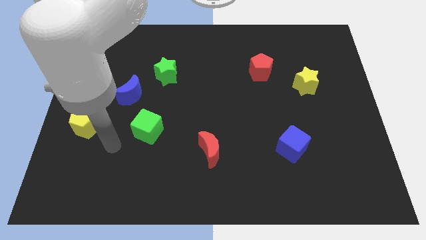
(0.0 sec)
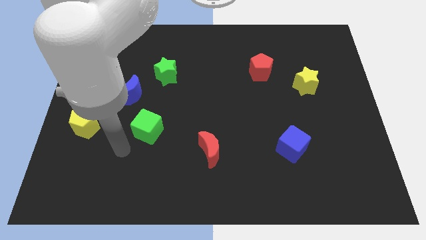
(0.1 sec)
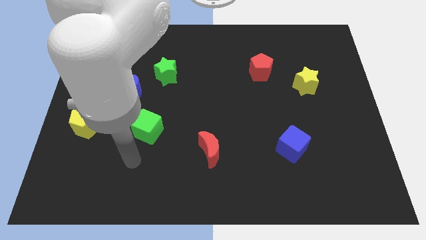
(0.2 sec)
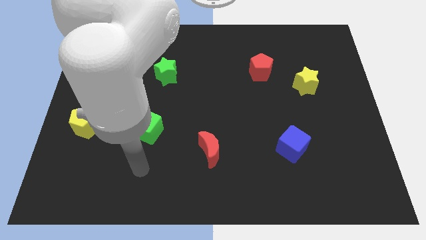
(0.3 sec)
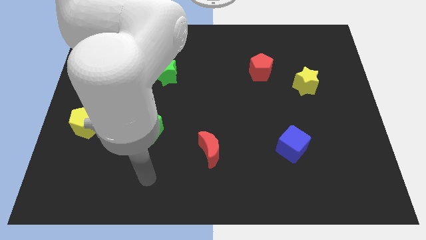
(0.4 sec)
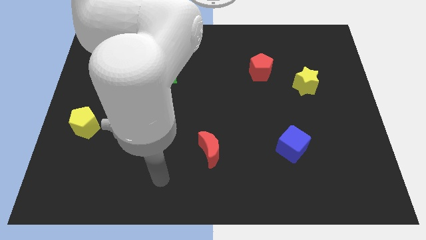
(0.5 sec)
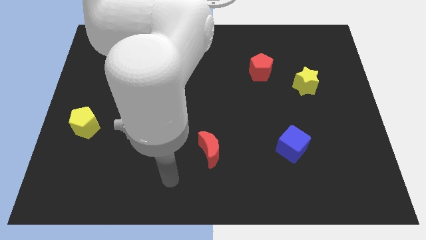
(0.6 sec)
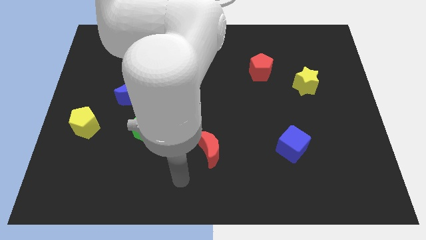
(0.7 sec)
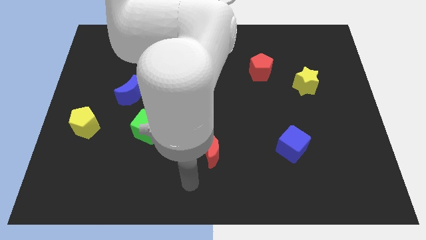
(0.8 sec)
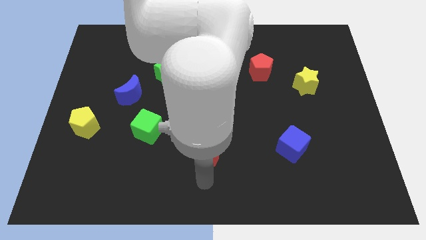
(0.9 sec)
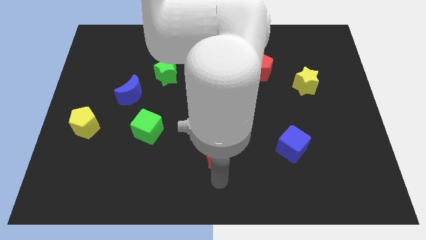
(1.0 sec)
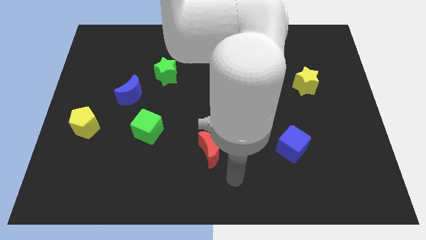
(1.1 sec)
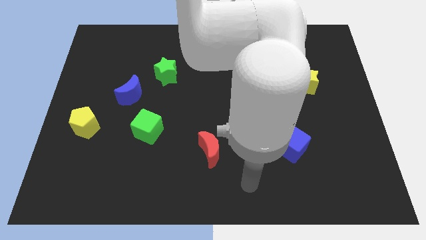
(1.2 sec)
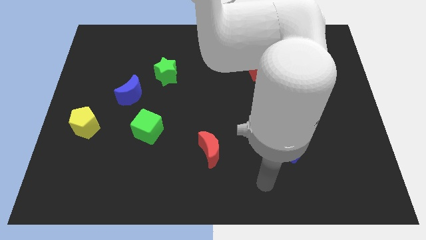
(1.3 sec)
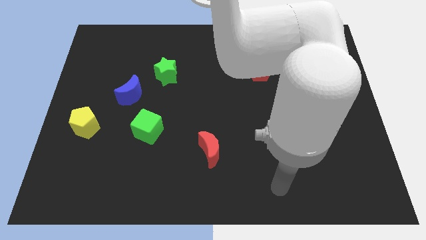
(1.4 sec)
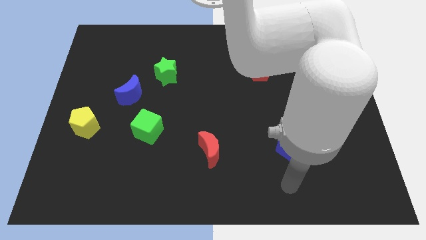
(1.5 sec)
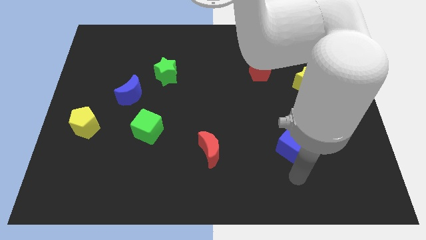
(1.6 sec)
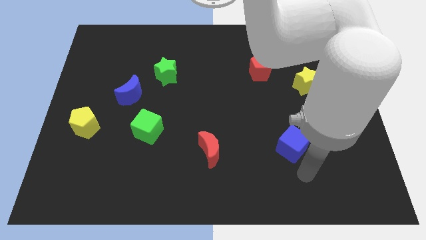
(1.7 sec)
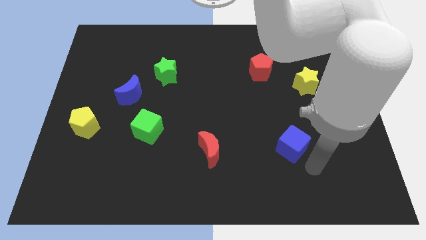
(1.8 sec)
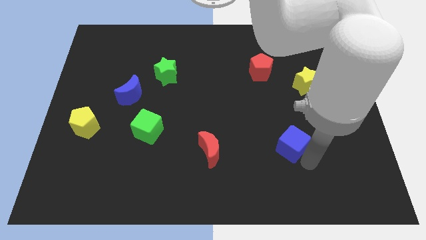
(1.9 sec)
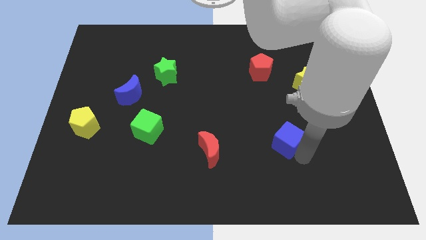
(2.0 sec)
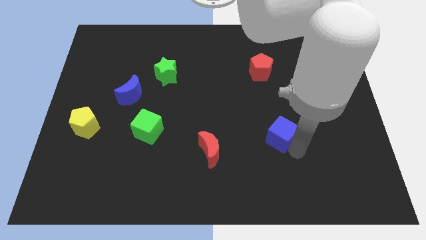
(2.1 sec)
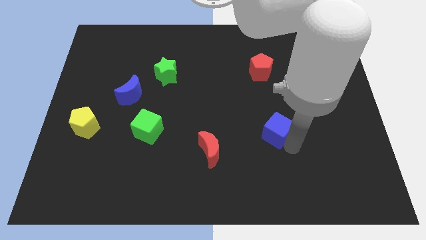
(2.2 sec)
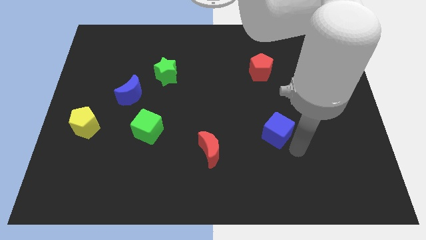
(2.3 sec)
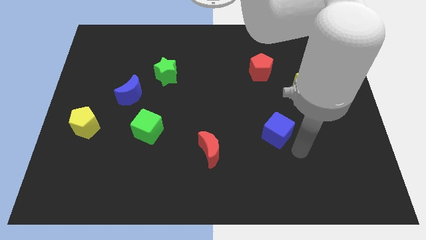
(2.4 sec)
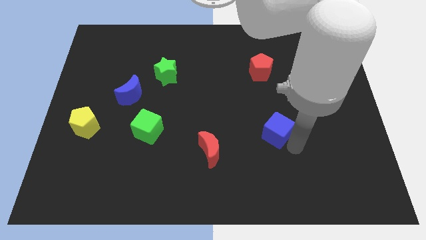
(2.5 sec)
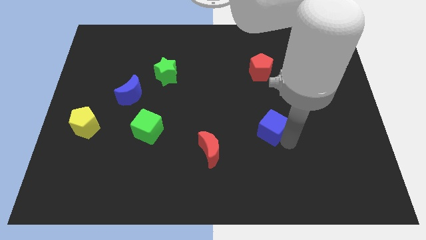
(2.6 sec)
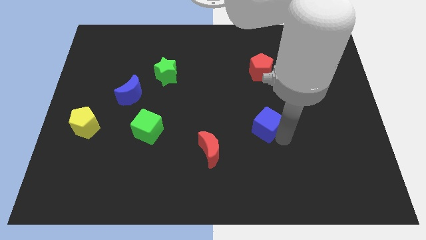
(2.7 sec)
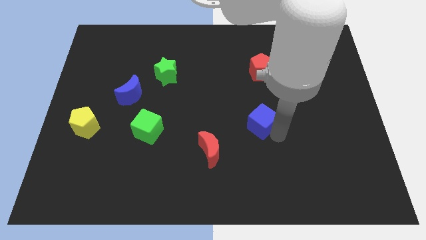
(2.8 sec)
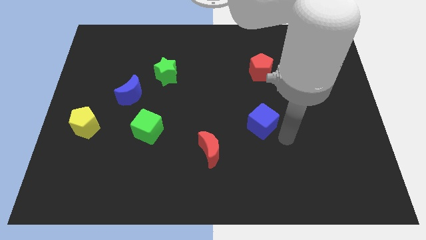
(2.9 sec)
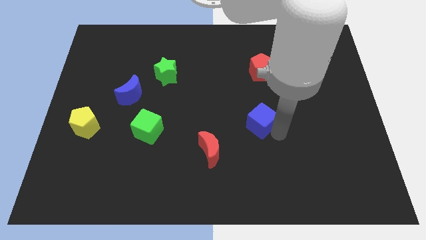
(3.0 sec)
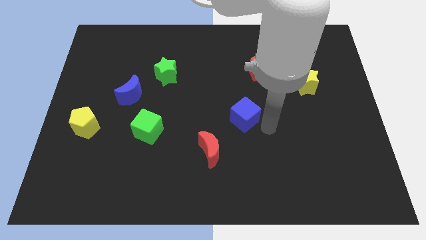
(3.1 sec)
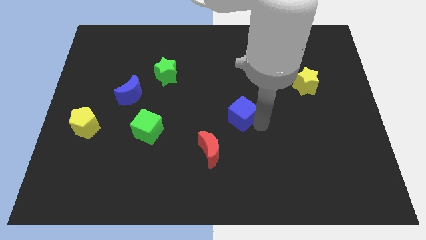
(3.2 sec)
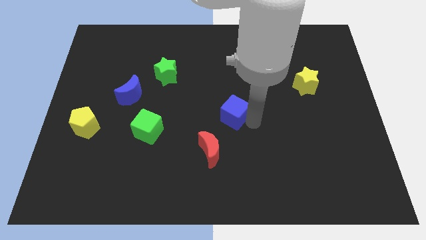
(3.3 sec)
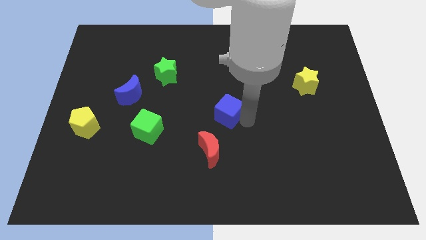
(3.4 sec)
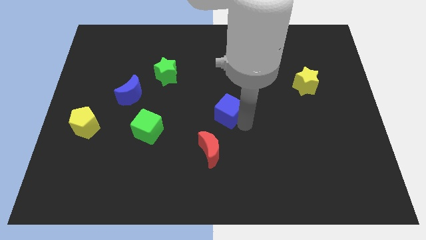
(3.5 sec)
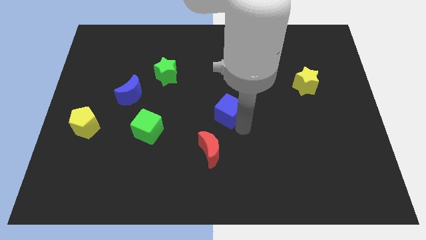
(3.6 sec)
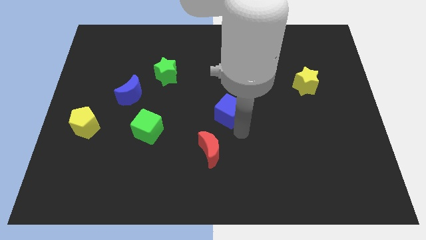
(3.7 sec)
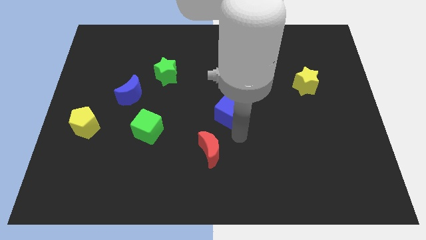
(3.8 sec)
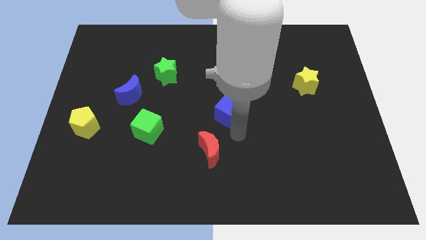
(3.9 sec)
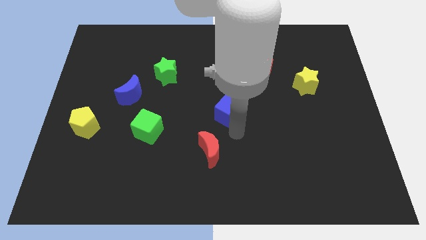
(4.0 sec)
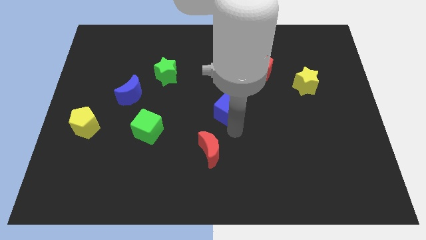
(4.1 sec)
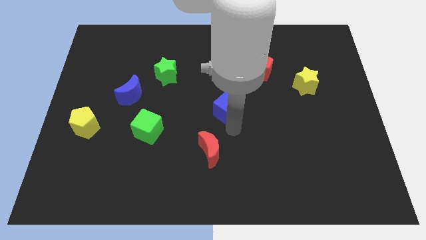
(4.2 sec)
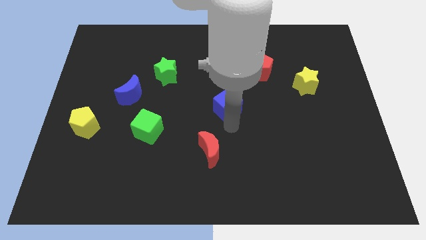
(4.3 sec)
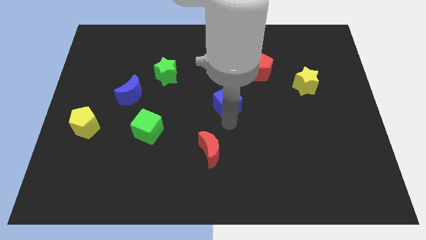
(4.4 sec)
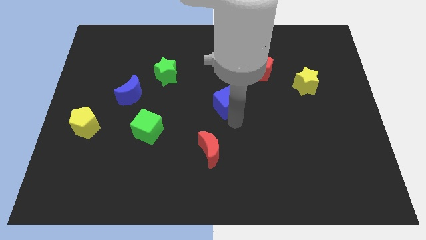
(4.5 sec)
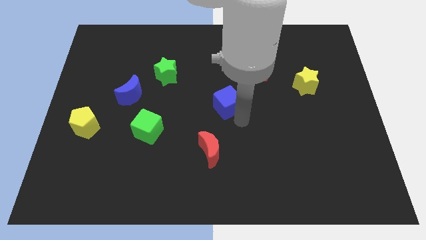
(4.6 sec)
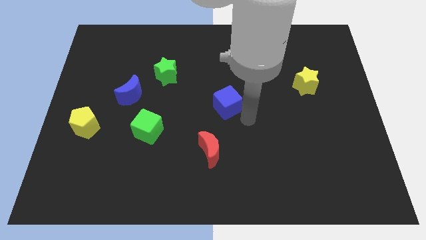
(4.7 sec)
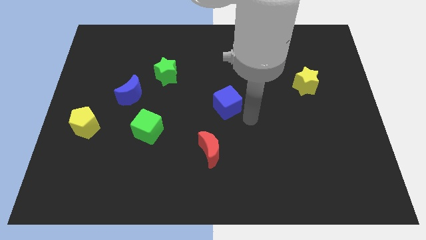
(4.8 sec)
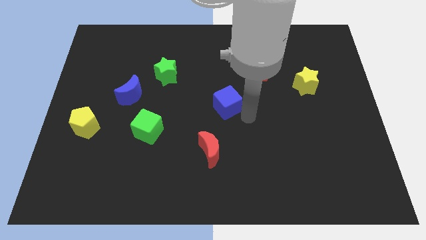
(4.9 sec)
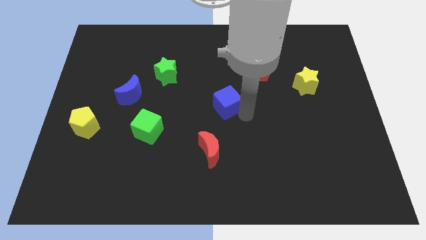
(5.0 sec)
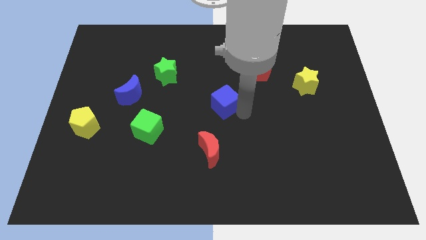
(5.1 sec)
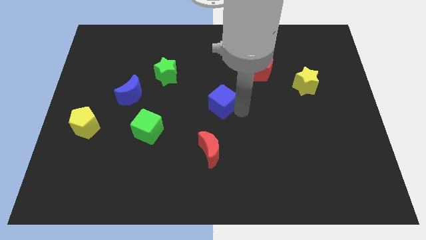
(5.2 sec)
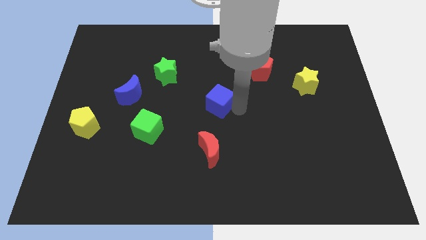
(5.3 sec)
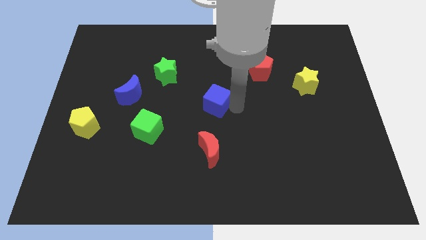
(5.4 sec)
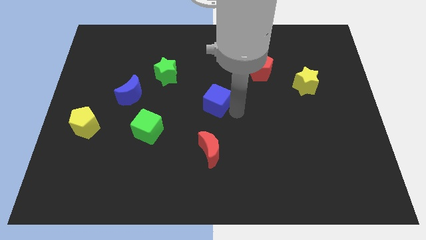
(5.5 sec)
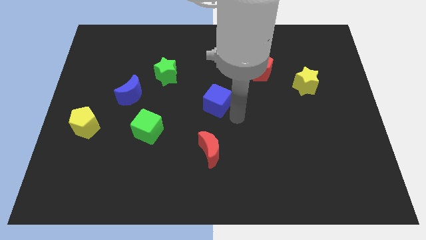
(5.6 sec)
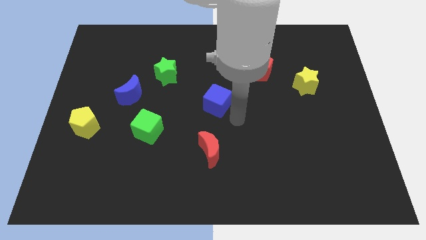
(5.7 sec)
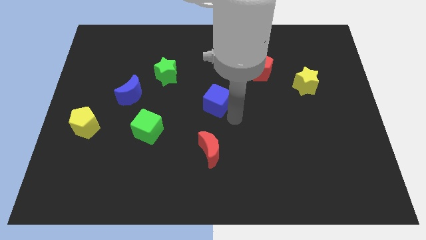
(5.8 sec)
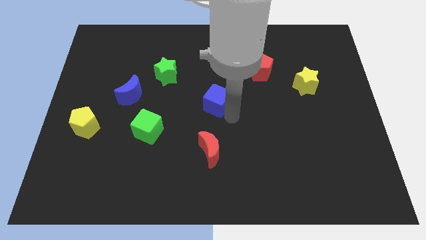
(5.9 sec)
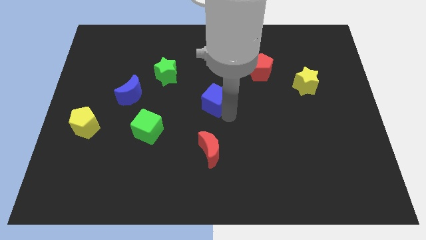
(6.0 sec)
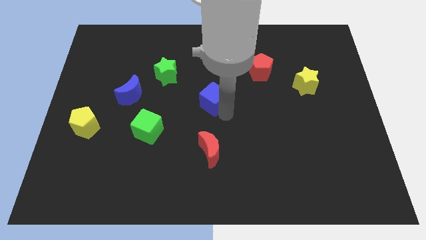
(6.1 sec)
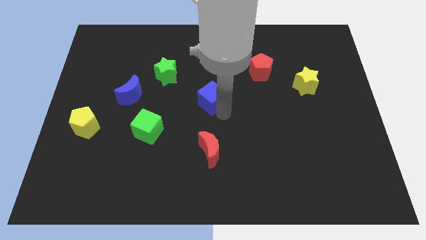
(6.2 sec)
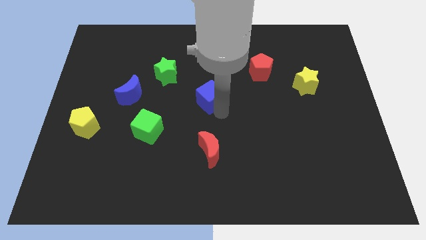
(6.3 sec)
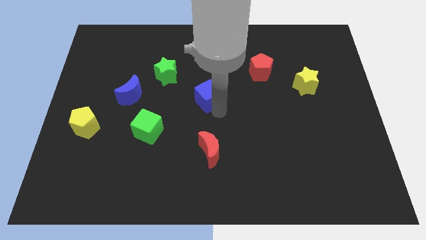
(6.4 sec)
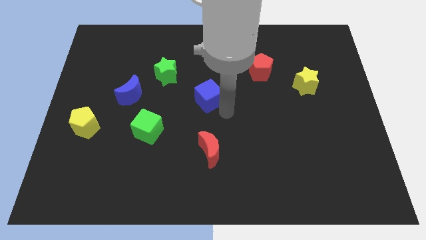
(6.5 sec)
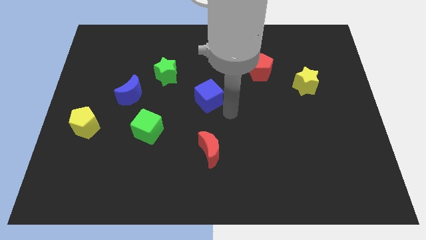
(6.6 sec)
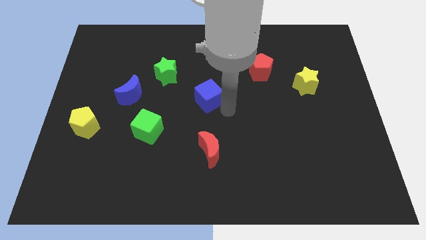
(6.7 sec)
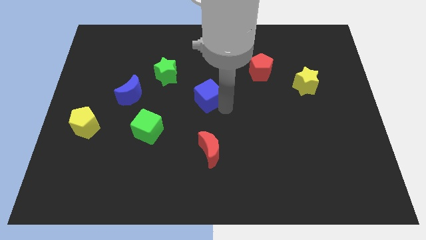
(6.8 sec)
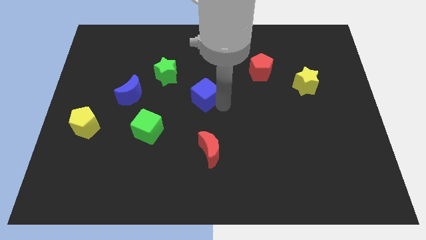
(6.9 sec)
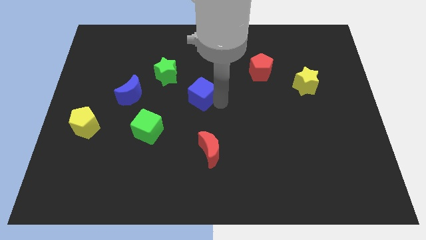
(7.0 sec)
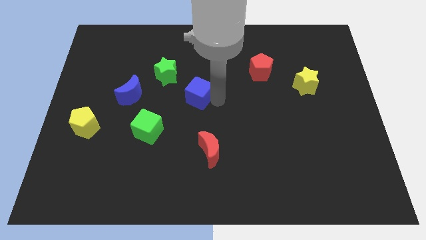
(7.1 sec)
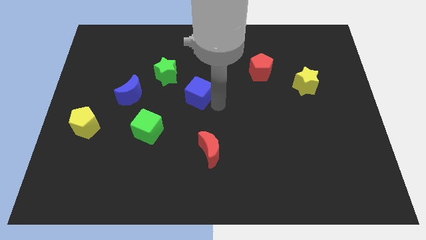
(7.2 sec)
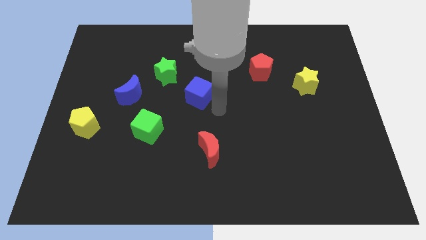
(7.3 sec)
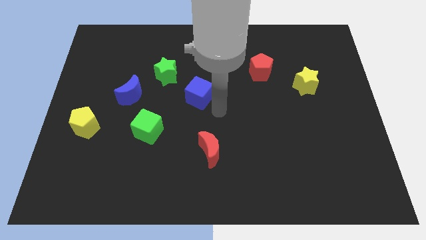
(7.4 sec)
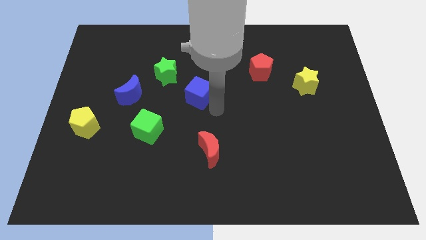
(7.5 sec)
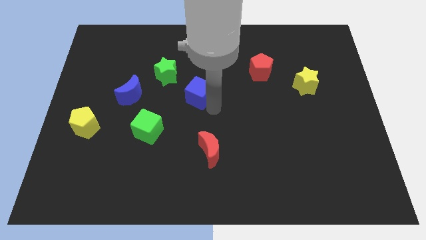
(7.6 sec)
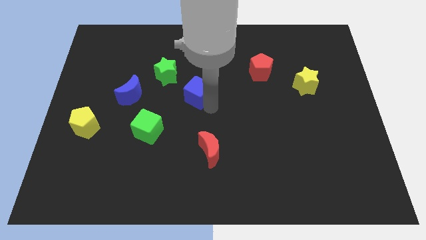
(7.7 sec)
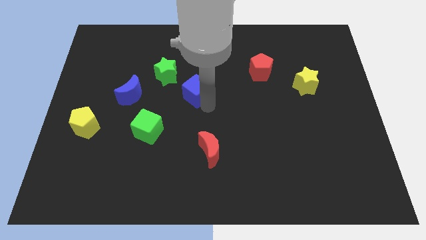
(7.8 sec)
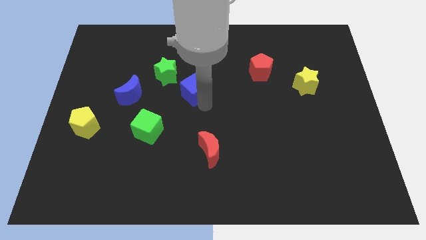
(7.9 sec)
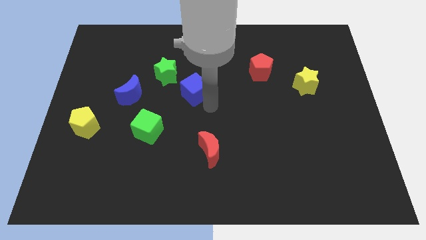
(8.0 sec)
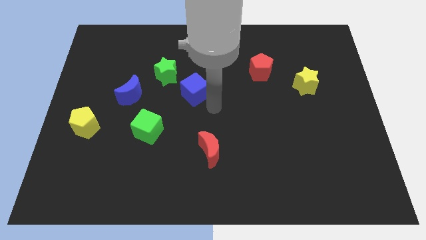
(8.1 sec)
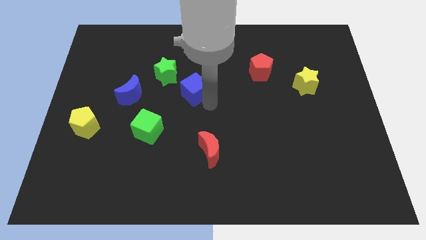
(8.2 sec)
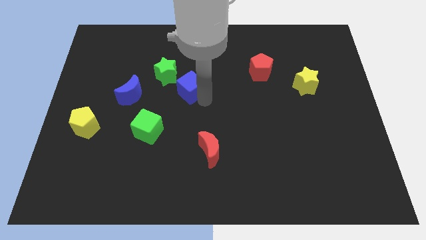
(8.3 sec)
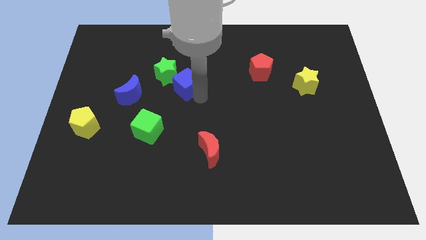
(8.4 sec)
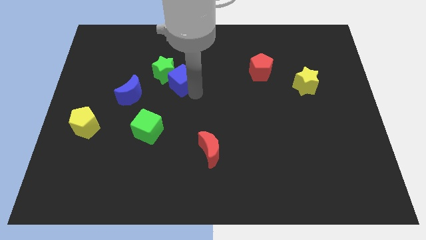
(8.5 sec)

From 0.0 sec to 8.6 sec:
move the blue cube to the green star
